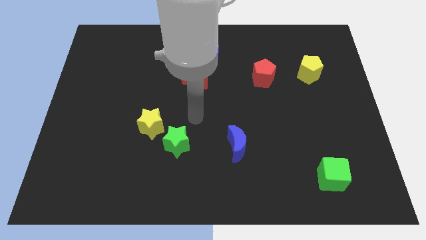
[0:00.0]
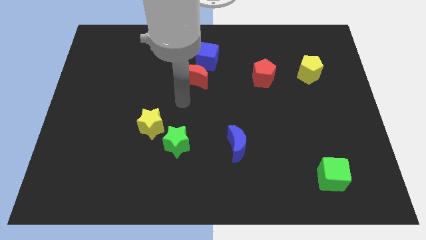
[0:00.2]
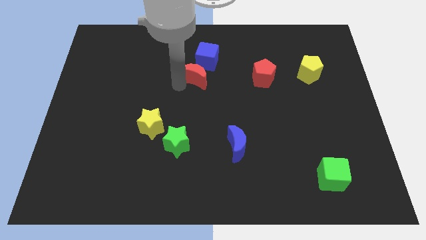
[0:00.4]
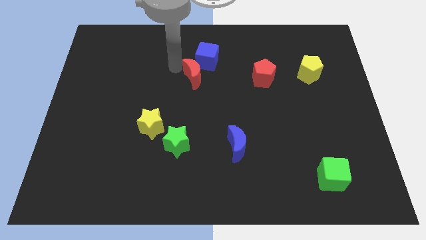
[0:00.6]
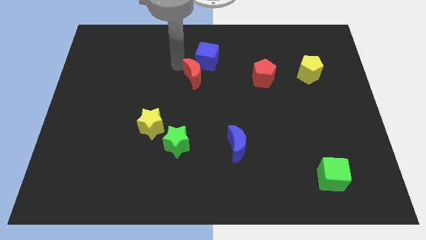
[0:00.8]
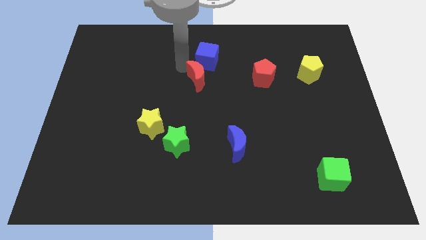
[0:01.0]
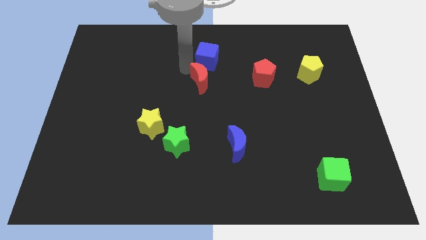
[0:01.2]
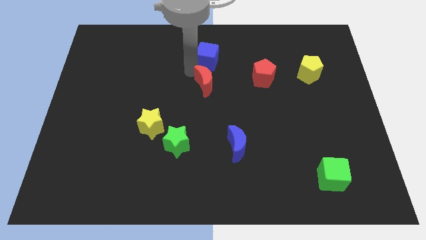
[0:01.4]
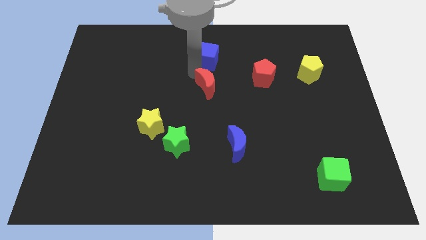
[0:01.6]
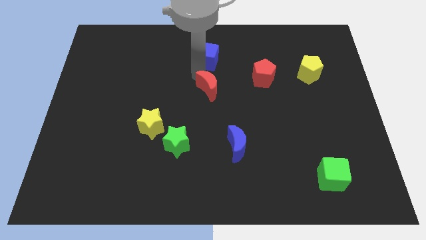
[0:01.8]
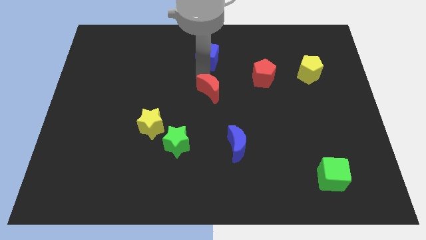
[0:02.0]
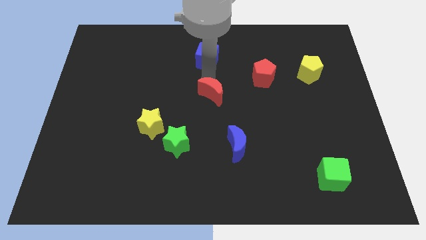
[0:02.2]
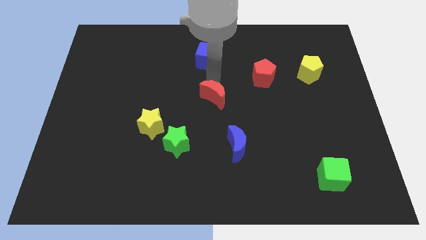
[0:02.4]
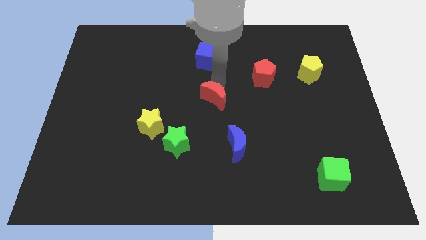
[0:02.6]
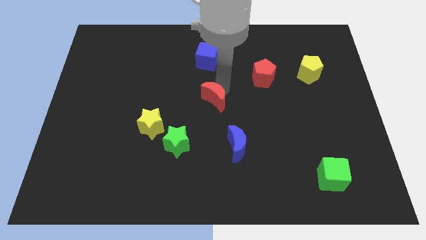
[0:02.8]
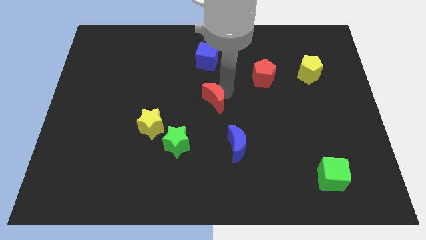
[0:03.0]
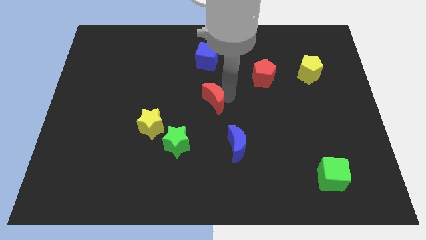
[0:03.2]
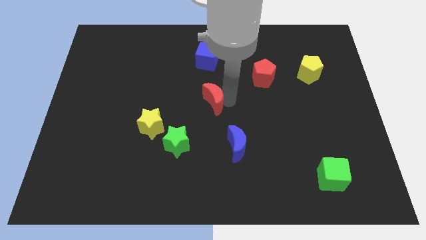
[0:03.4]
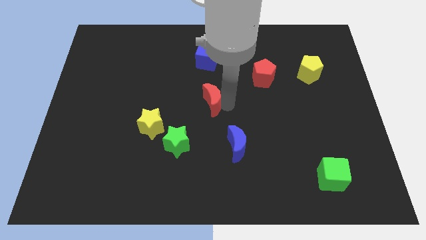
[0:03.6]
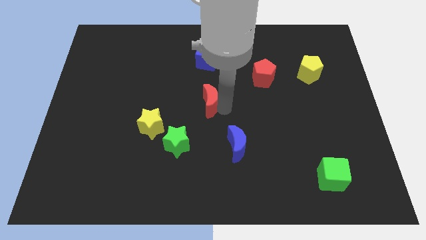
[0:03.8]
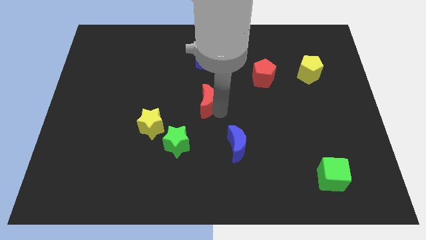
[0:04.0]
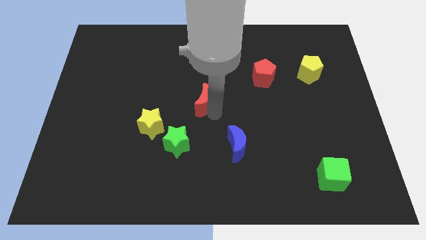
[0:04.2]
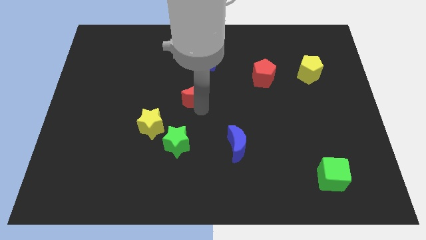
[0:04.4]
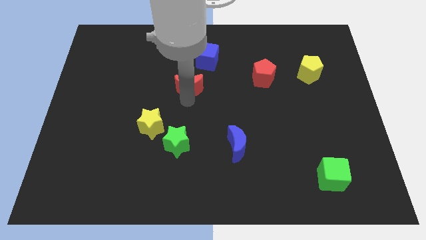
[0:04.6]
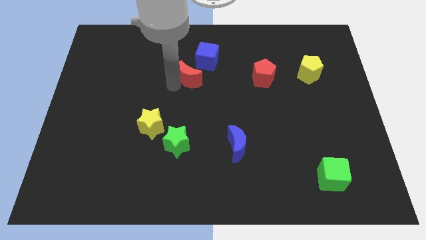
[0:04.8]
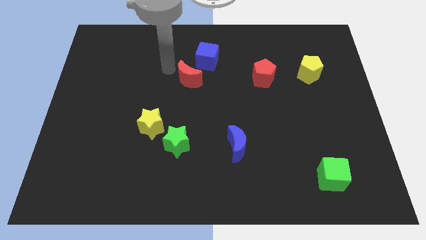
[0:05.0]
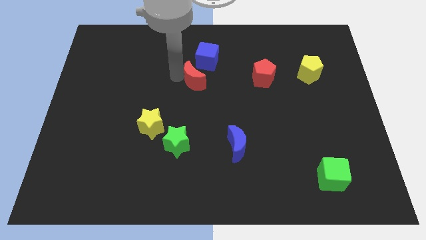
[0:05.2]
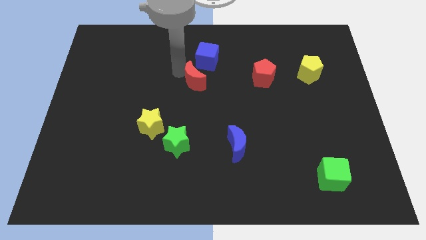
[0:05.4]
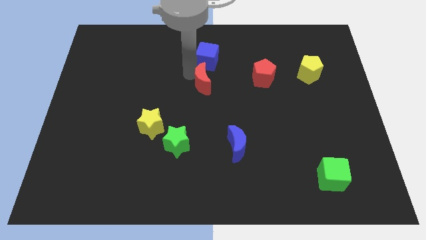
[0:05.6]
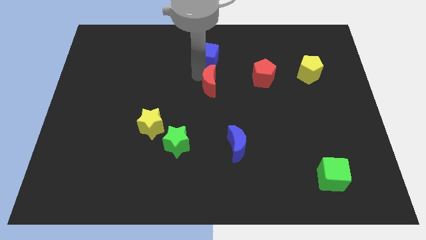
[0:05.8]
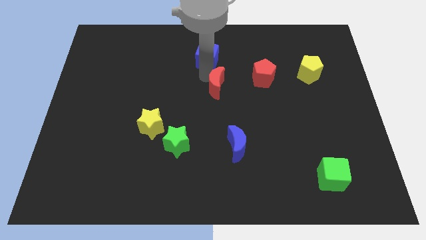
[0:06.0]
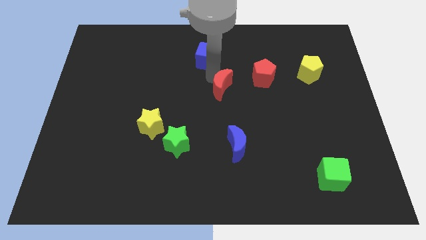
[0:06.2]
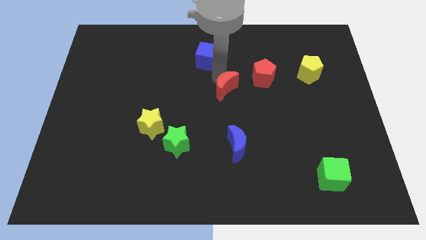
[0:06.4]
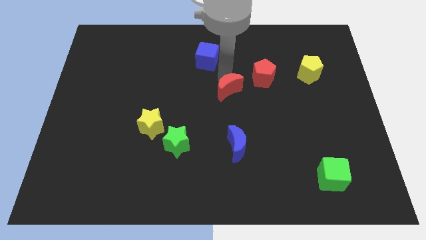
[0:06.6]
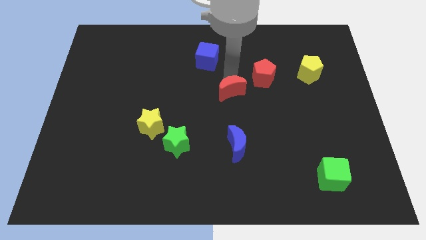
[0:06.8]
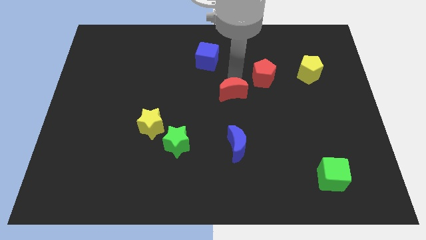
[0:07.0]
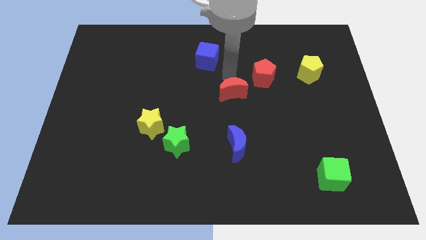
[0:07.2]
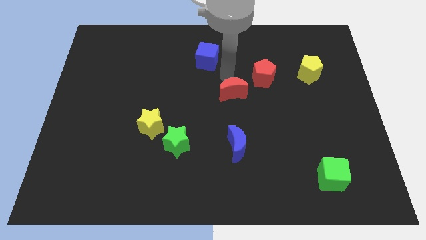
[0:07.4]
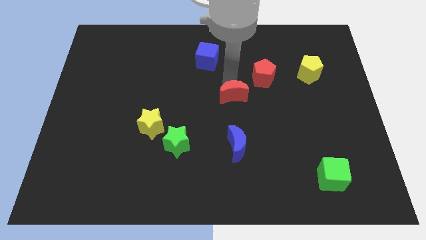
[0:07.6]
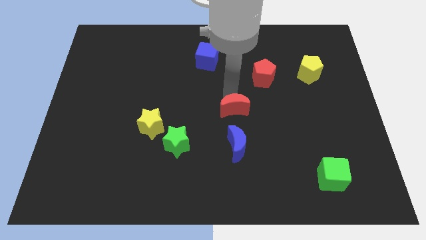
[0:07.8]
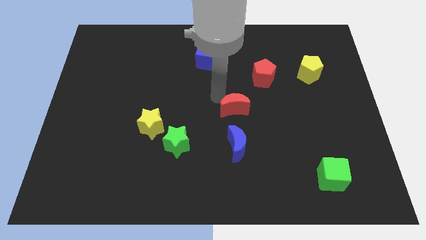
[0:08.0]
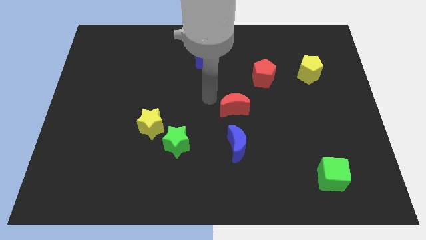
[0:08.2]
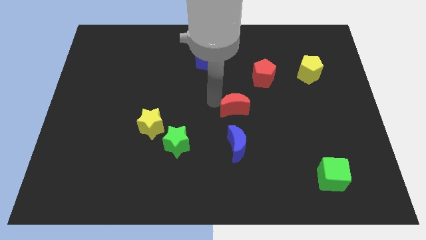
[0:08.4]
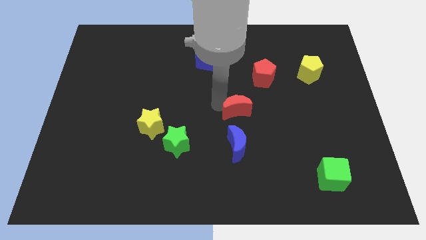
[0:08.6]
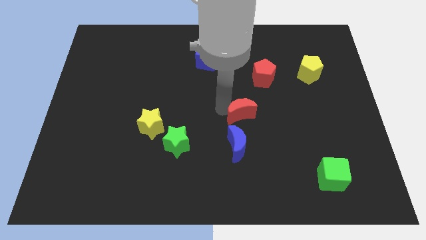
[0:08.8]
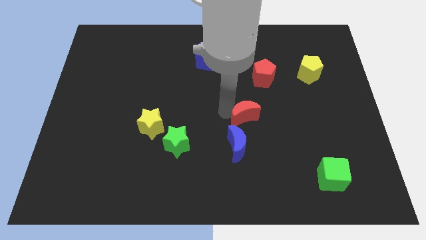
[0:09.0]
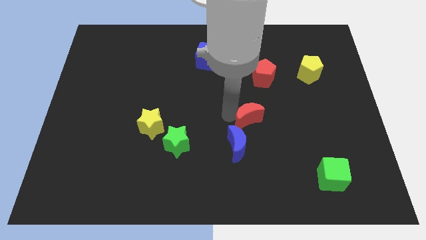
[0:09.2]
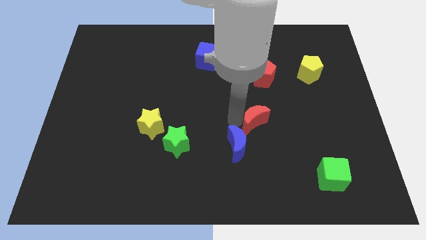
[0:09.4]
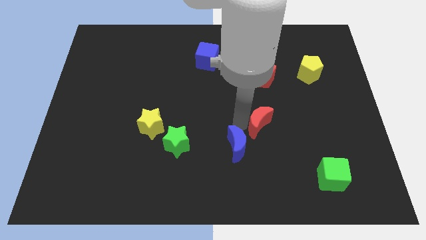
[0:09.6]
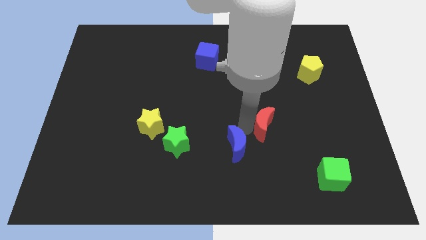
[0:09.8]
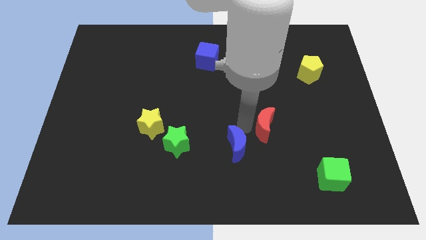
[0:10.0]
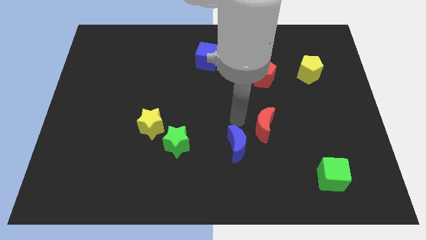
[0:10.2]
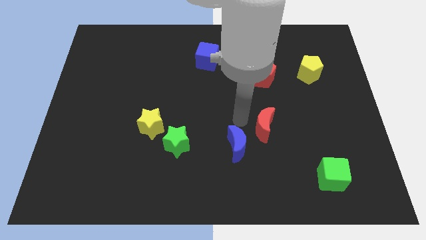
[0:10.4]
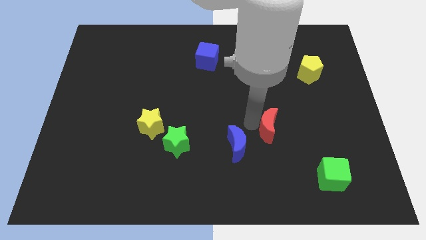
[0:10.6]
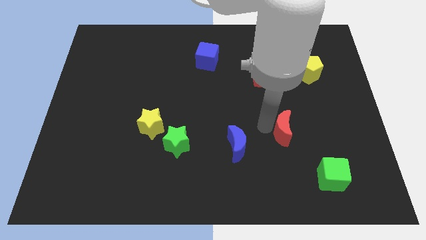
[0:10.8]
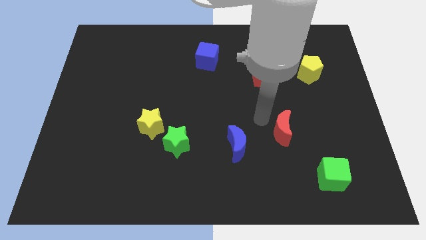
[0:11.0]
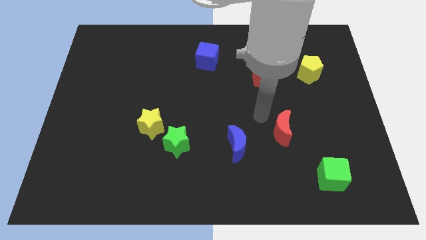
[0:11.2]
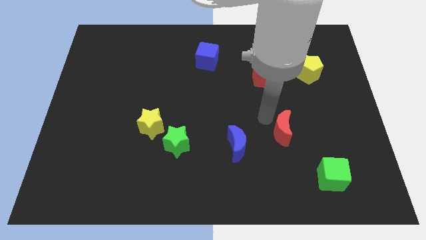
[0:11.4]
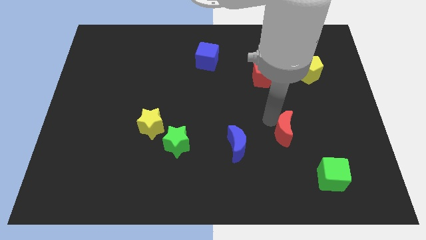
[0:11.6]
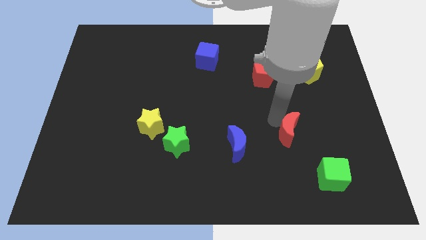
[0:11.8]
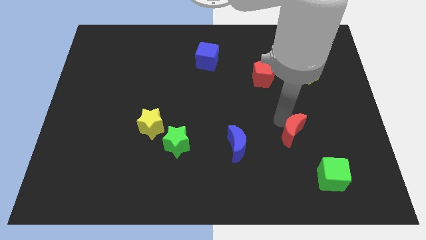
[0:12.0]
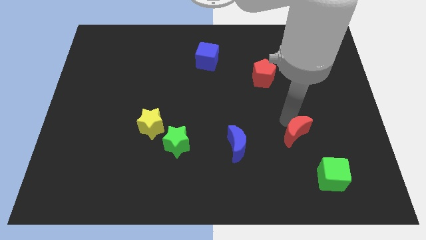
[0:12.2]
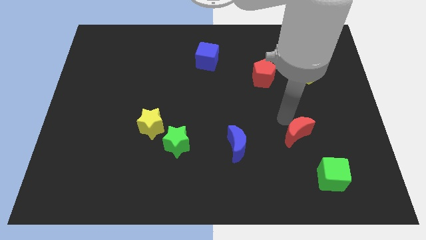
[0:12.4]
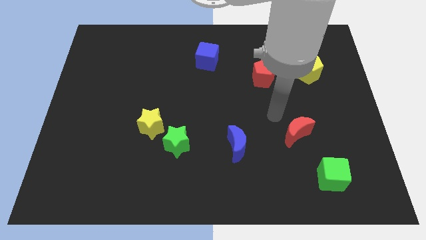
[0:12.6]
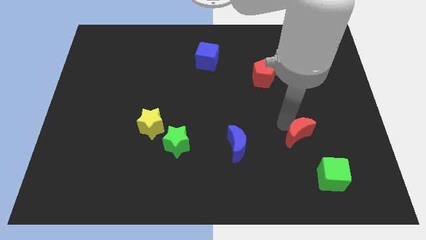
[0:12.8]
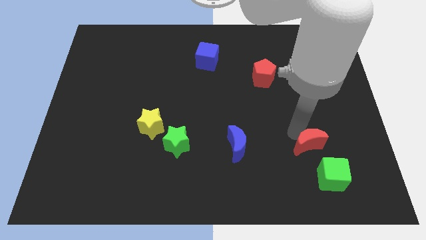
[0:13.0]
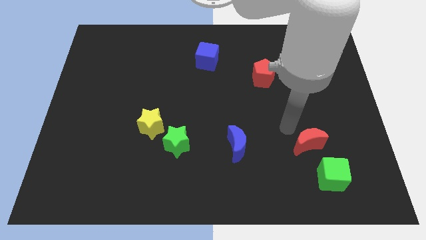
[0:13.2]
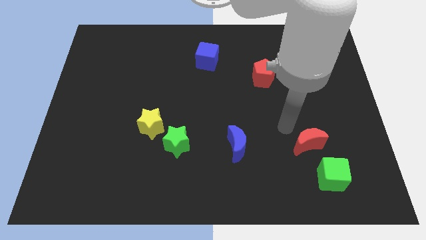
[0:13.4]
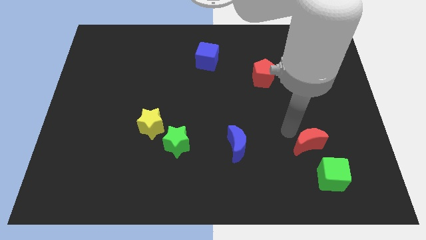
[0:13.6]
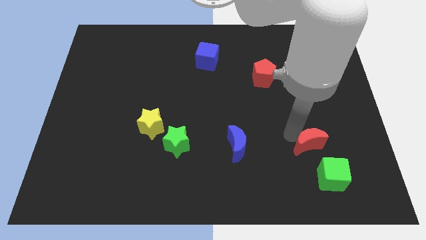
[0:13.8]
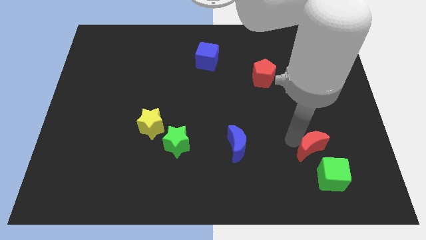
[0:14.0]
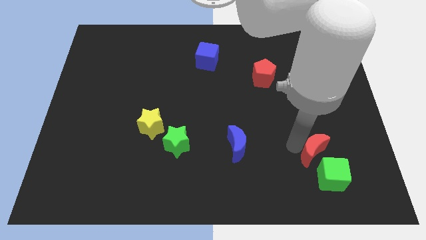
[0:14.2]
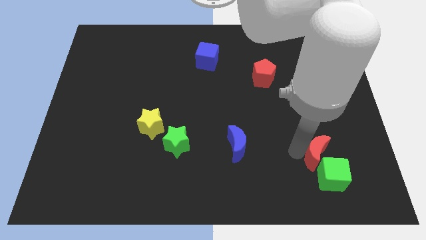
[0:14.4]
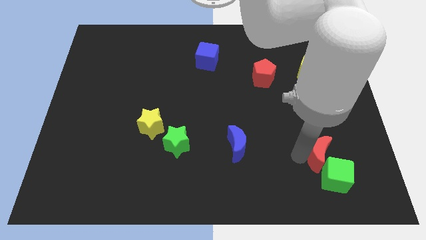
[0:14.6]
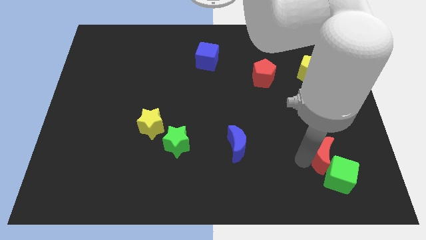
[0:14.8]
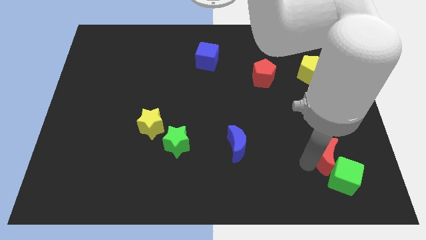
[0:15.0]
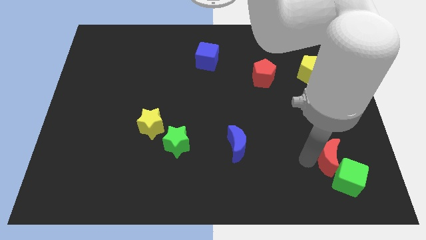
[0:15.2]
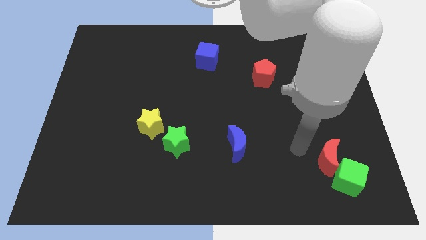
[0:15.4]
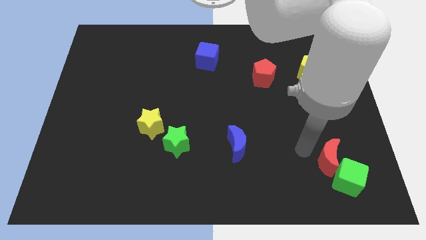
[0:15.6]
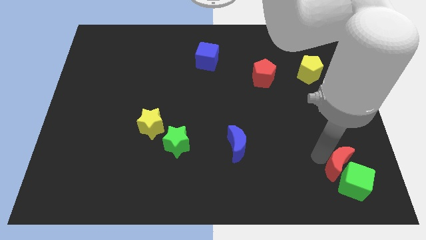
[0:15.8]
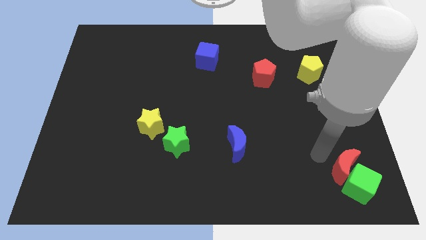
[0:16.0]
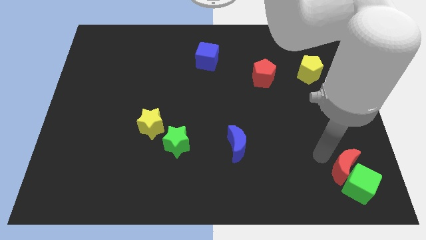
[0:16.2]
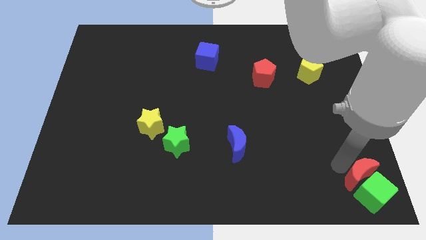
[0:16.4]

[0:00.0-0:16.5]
slide the red moon to the bottom right
